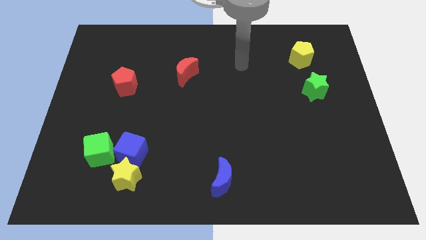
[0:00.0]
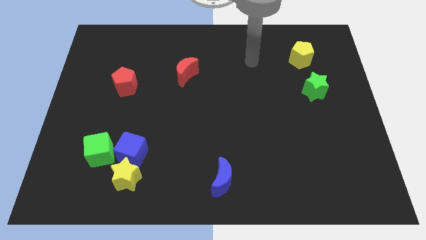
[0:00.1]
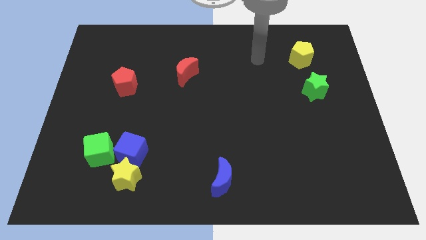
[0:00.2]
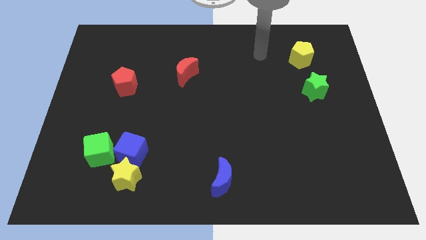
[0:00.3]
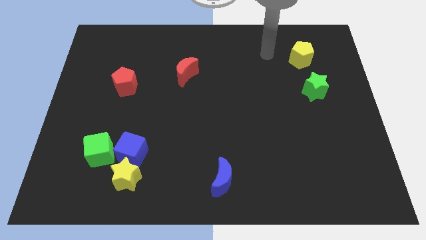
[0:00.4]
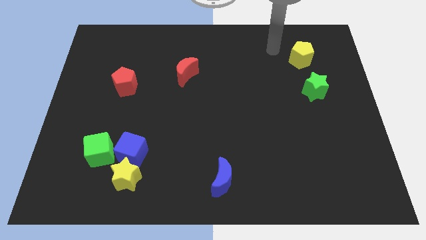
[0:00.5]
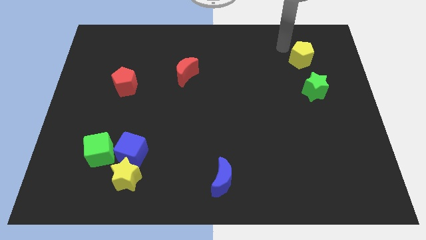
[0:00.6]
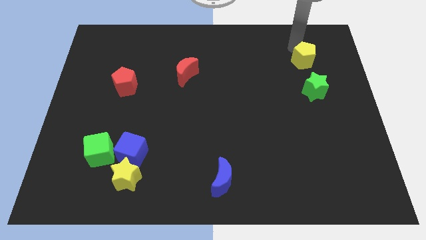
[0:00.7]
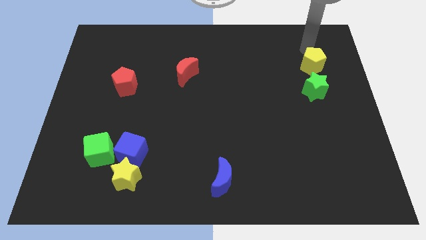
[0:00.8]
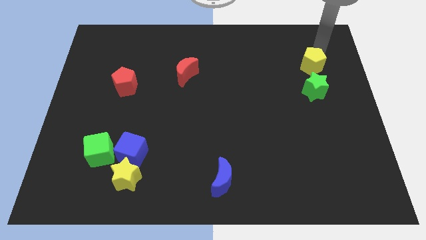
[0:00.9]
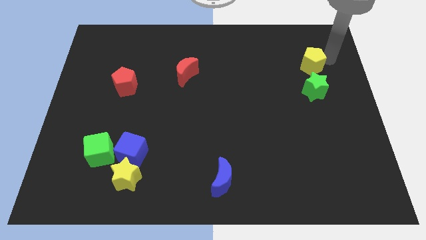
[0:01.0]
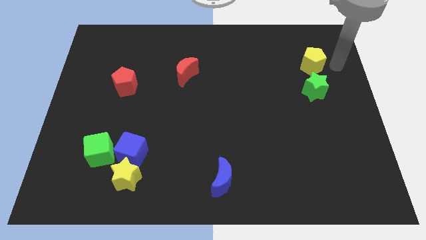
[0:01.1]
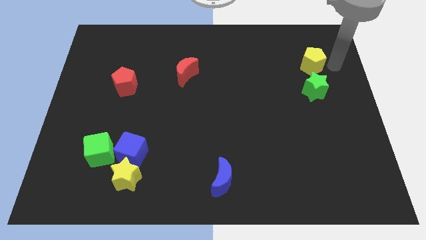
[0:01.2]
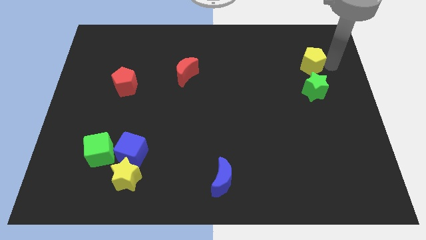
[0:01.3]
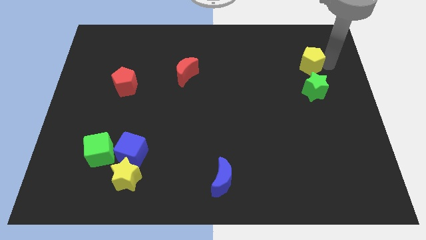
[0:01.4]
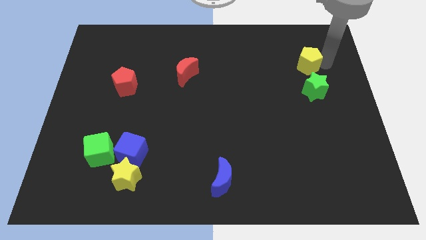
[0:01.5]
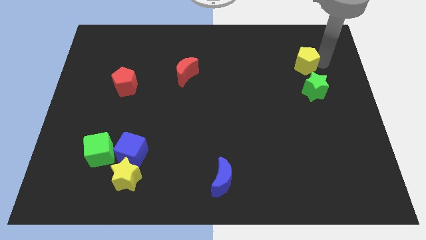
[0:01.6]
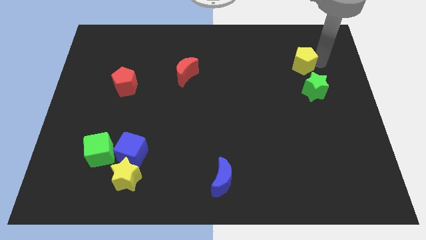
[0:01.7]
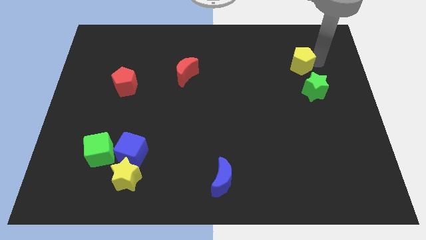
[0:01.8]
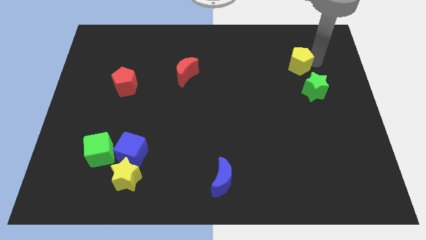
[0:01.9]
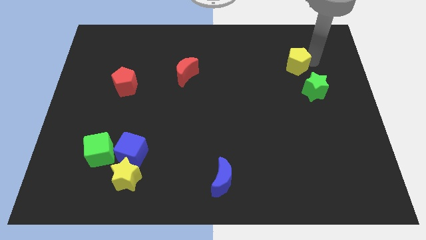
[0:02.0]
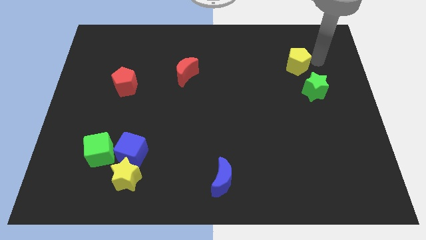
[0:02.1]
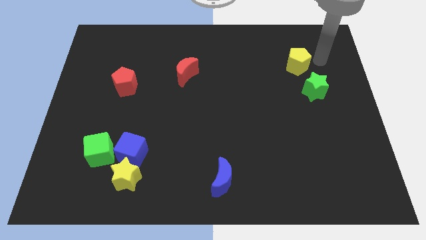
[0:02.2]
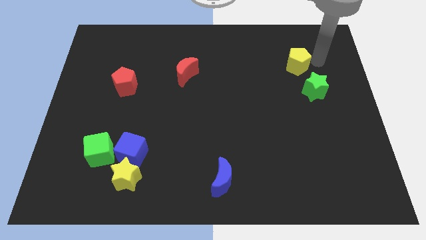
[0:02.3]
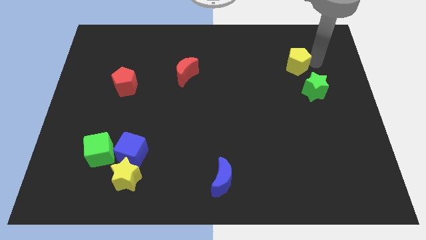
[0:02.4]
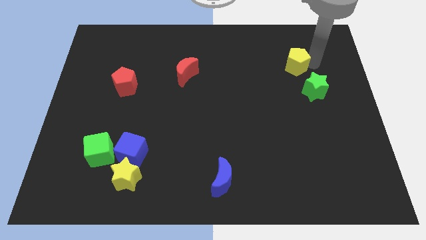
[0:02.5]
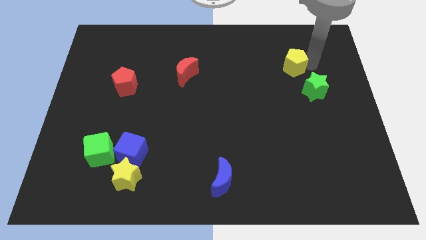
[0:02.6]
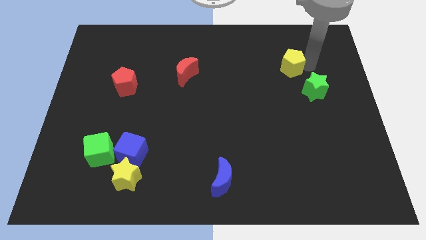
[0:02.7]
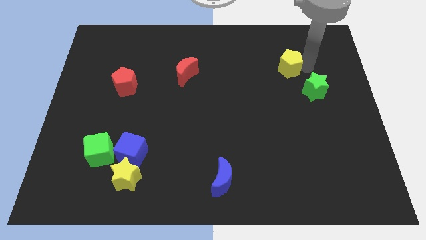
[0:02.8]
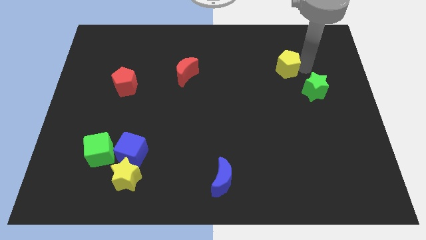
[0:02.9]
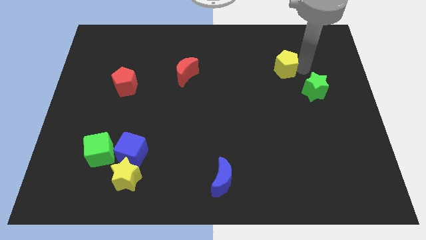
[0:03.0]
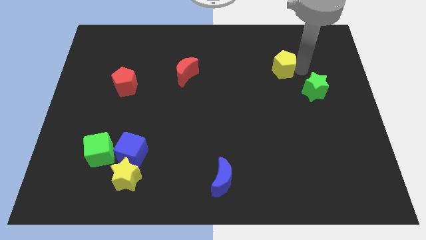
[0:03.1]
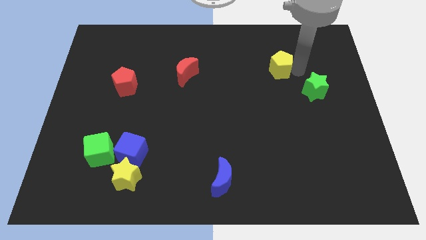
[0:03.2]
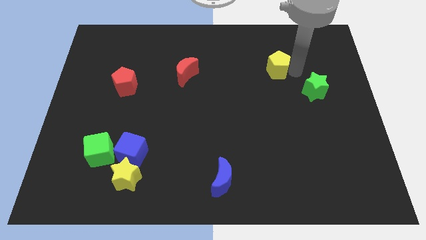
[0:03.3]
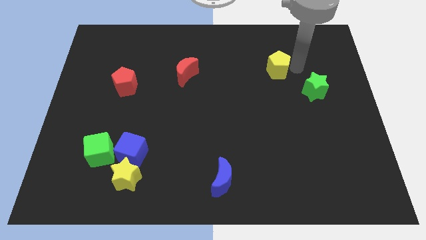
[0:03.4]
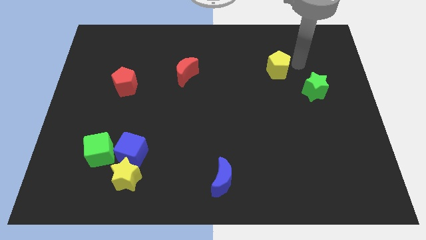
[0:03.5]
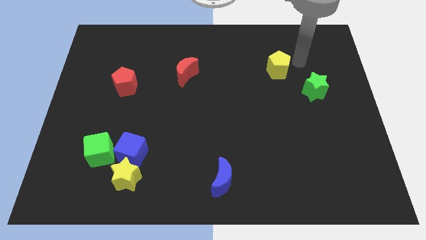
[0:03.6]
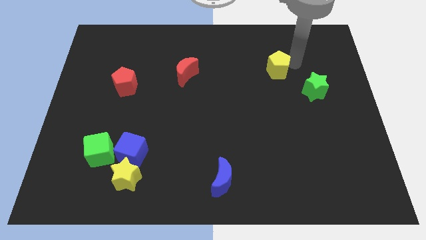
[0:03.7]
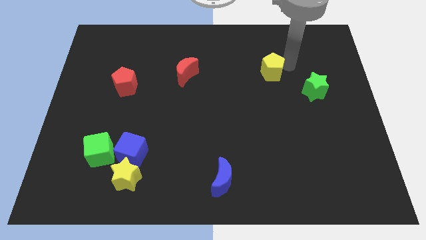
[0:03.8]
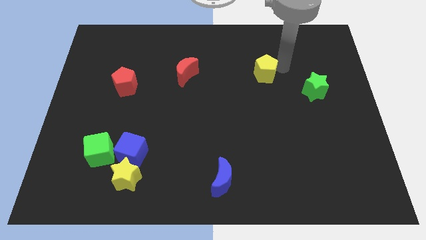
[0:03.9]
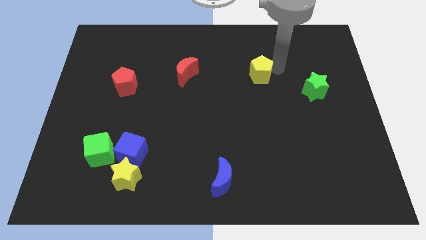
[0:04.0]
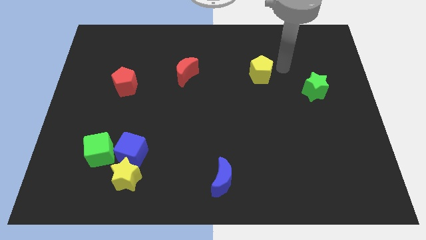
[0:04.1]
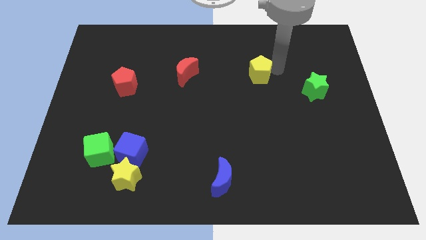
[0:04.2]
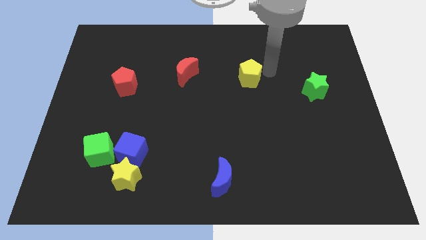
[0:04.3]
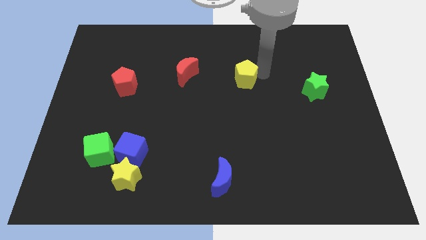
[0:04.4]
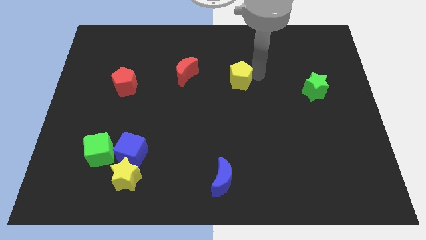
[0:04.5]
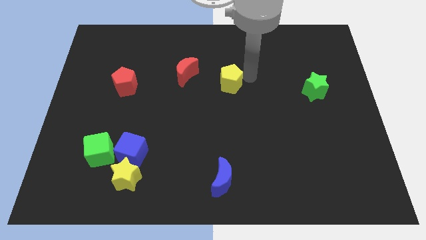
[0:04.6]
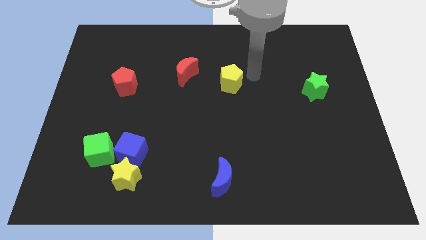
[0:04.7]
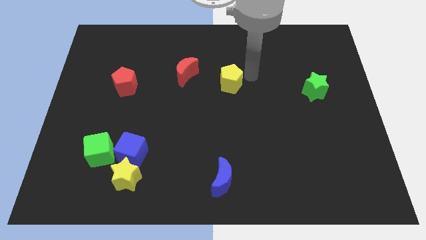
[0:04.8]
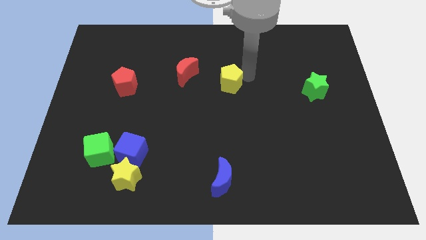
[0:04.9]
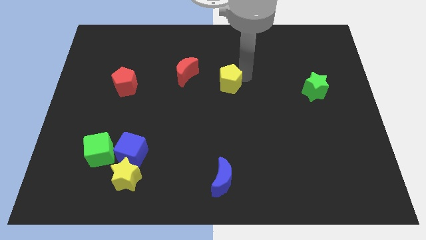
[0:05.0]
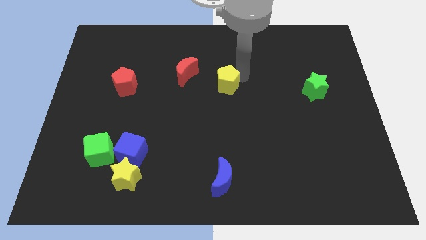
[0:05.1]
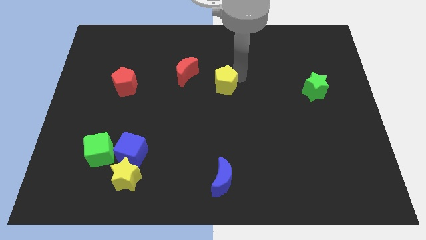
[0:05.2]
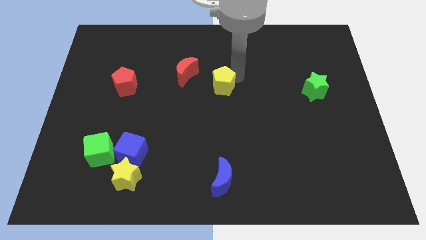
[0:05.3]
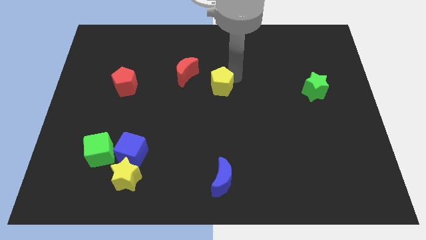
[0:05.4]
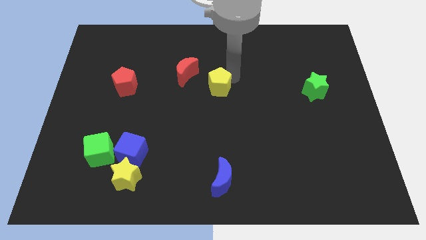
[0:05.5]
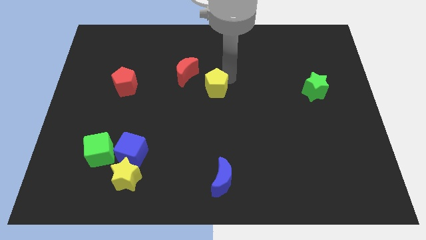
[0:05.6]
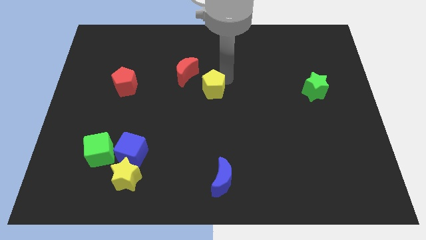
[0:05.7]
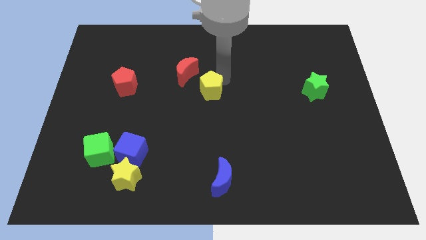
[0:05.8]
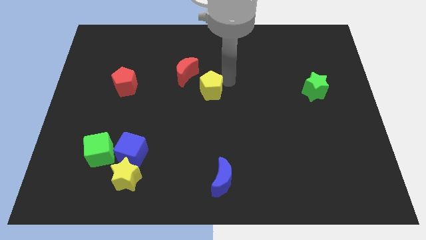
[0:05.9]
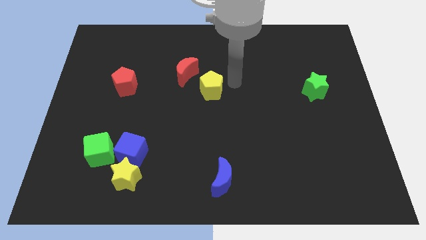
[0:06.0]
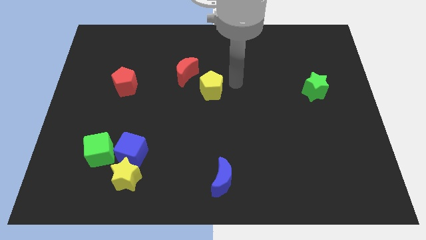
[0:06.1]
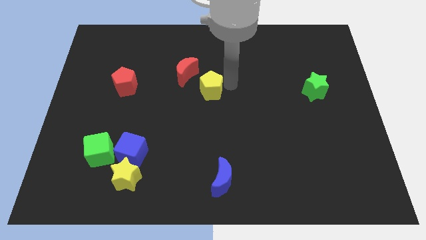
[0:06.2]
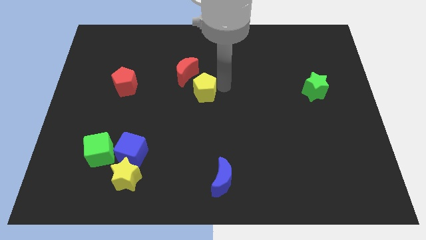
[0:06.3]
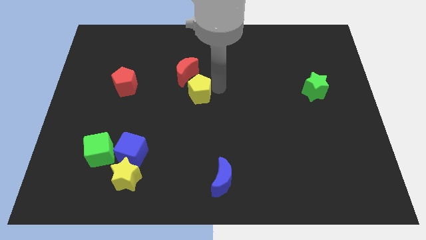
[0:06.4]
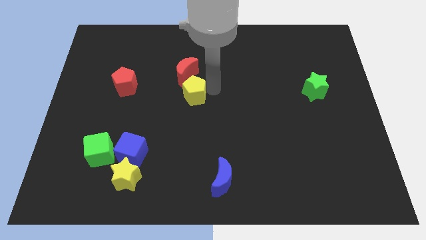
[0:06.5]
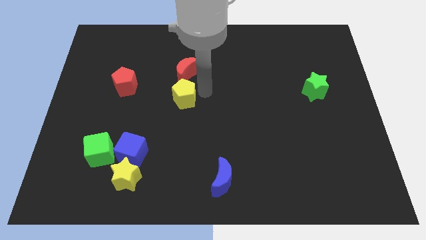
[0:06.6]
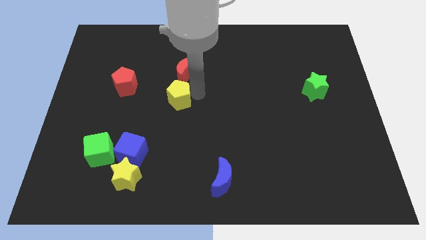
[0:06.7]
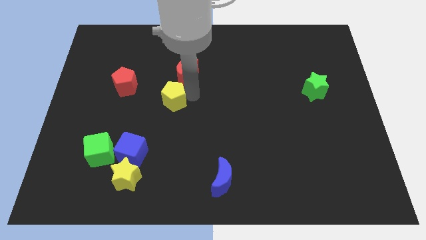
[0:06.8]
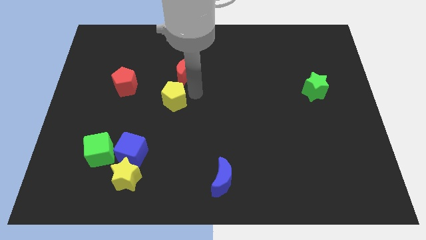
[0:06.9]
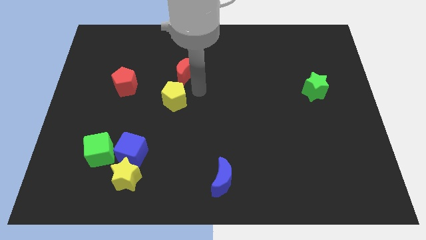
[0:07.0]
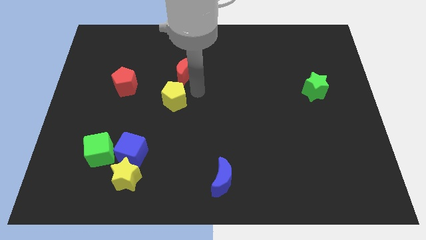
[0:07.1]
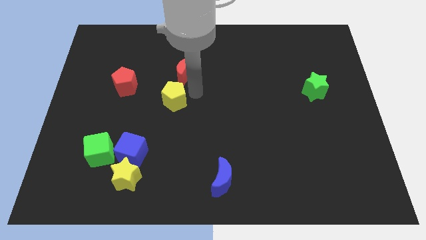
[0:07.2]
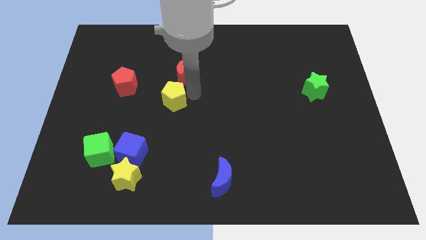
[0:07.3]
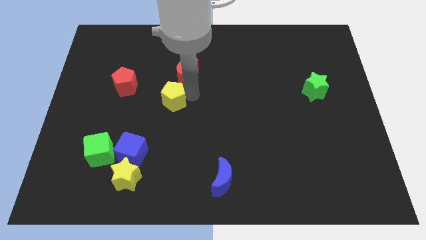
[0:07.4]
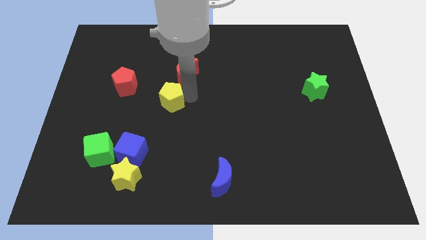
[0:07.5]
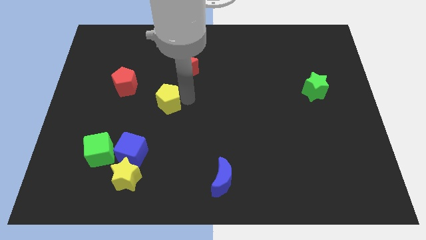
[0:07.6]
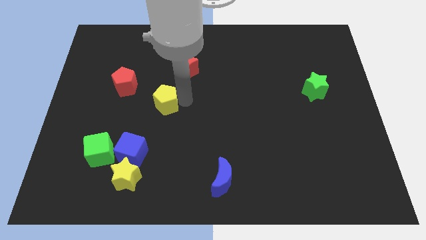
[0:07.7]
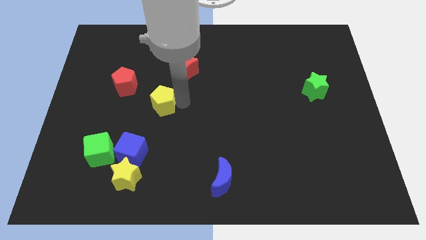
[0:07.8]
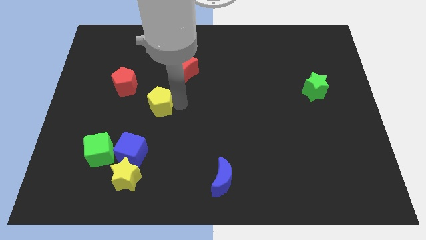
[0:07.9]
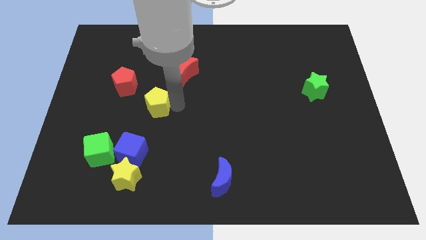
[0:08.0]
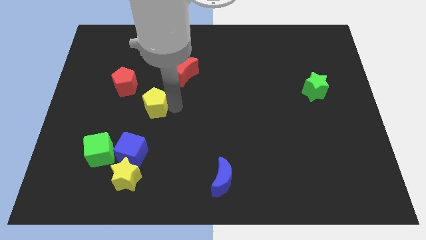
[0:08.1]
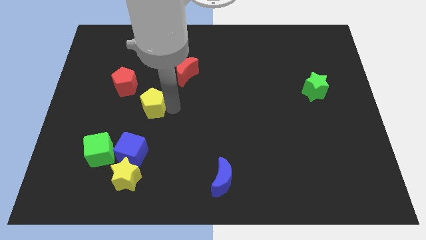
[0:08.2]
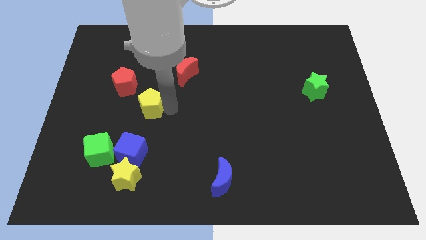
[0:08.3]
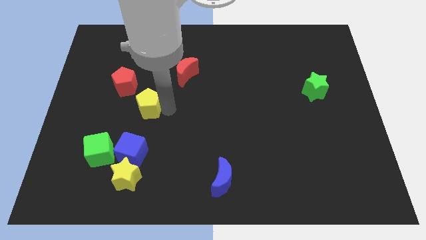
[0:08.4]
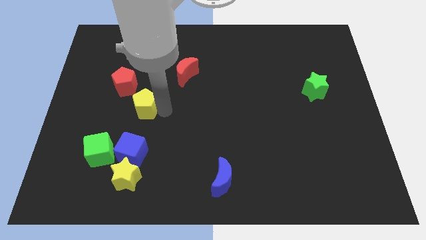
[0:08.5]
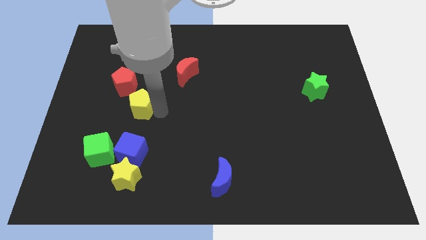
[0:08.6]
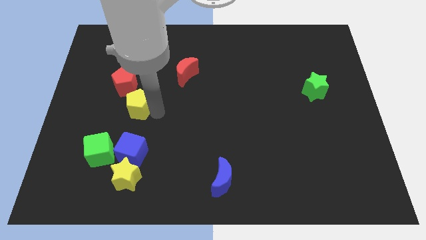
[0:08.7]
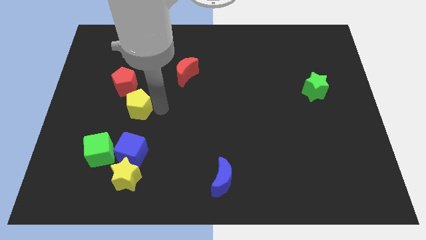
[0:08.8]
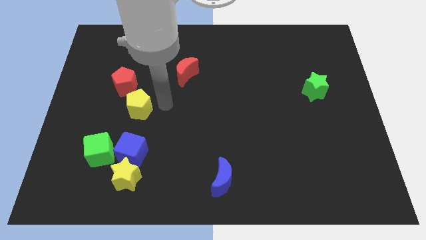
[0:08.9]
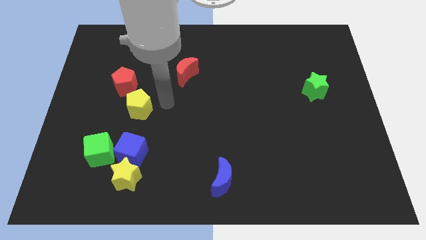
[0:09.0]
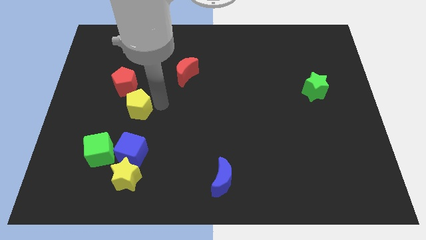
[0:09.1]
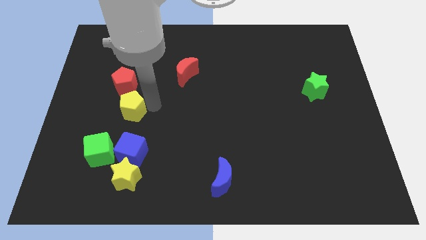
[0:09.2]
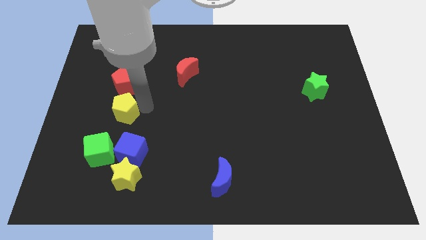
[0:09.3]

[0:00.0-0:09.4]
push the yellow pentagon to the top side of the green cube
